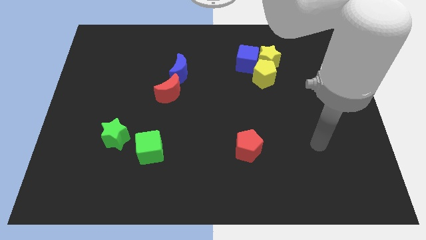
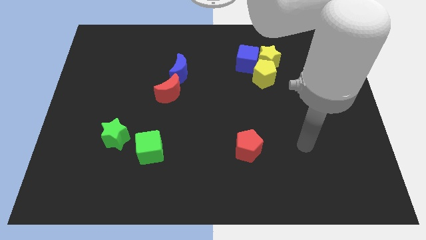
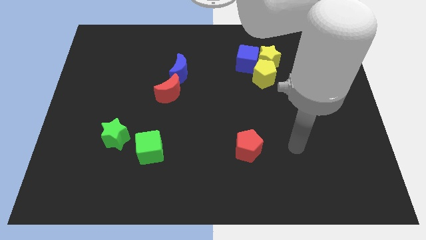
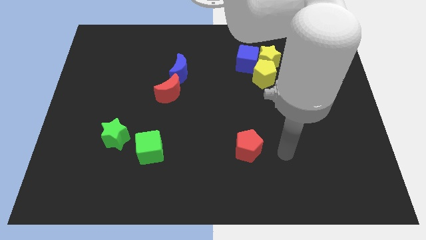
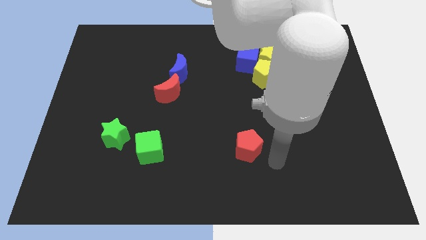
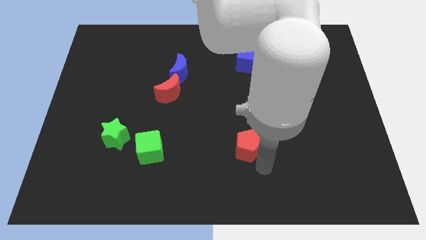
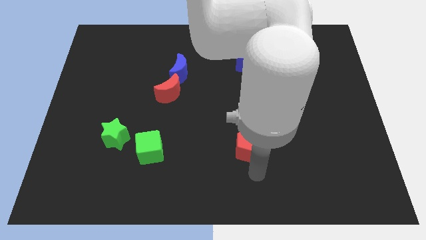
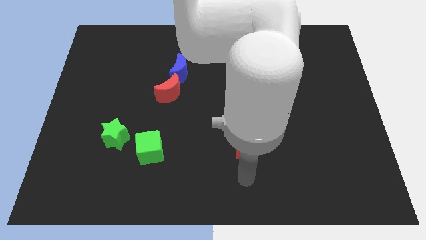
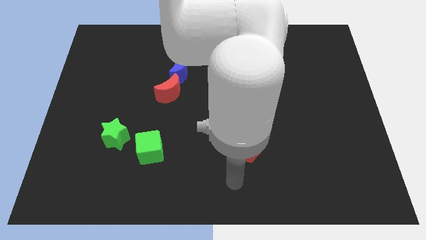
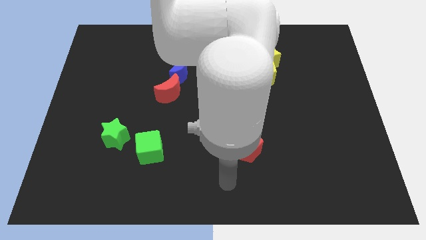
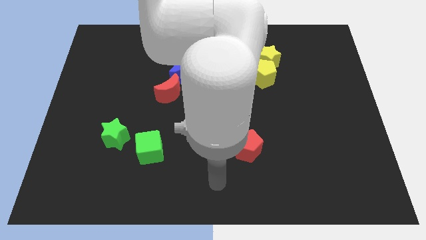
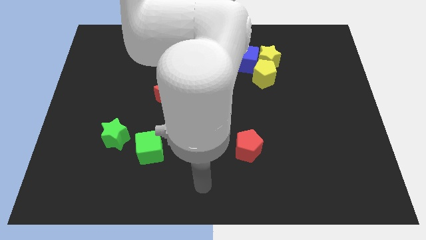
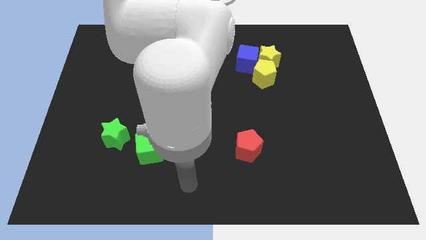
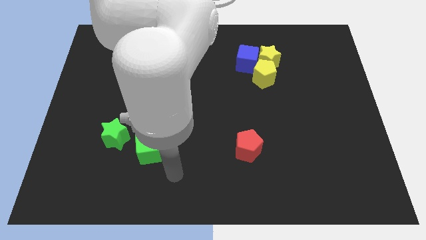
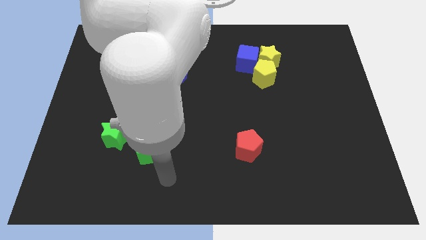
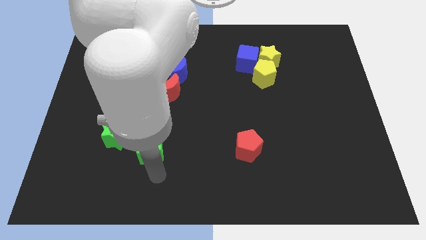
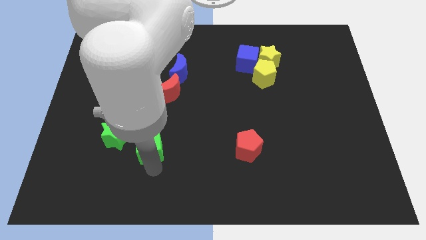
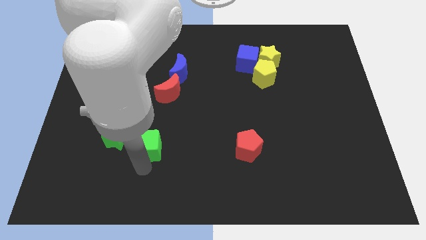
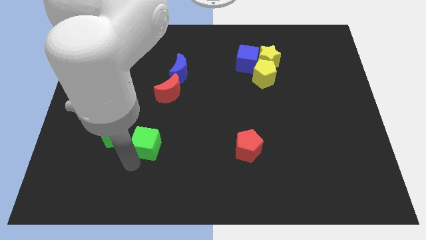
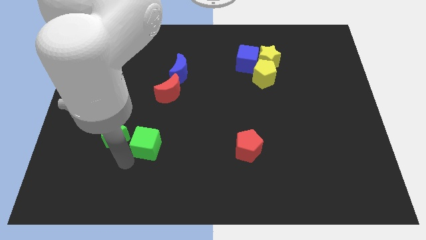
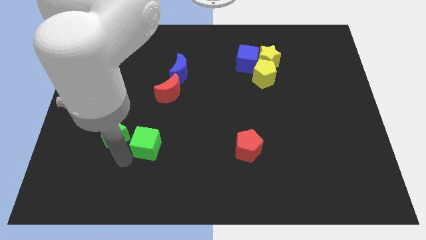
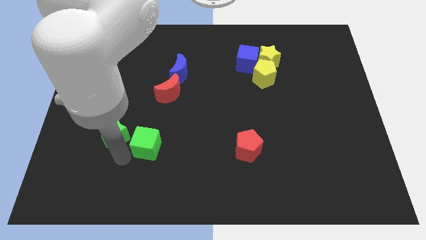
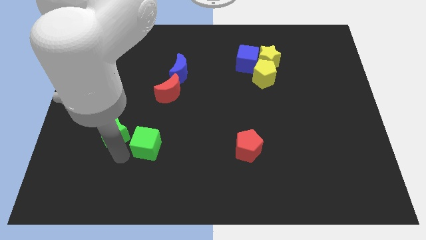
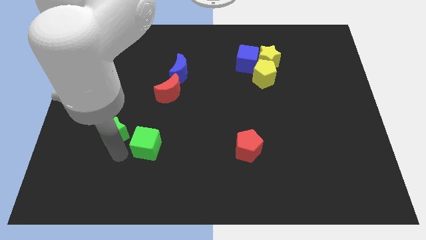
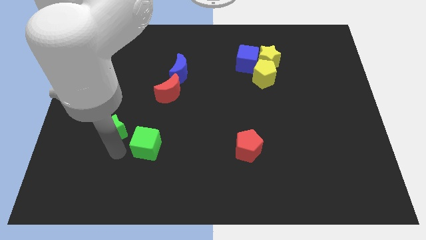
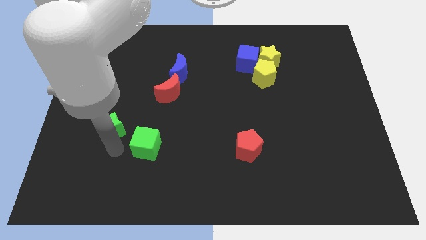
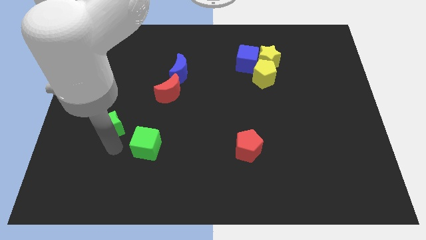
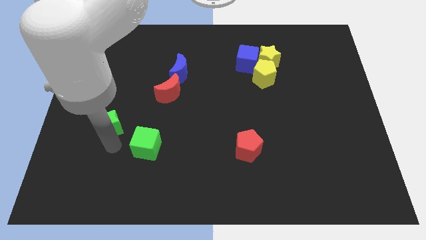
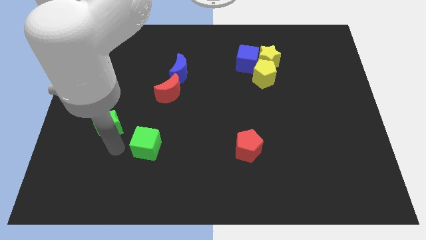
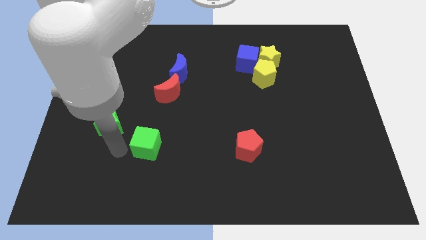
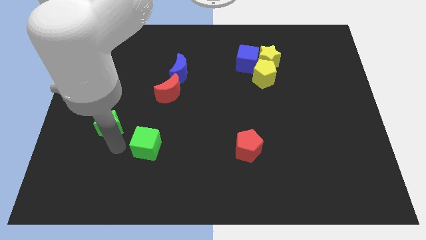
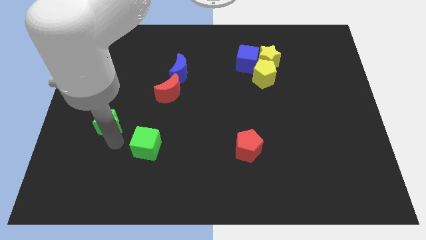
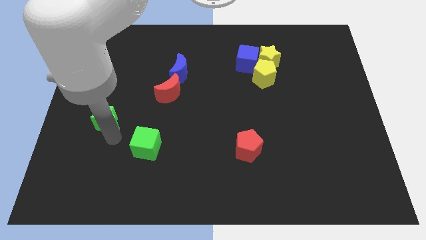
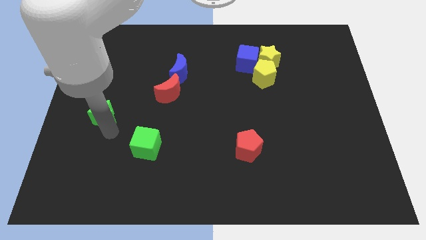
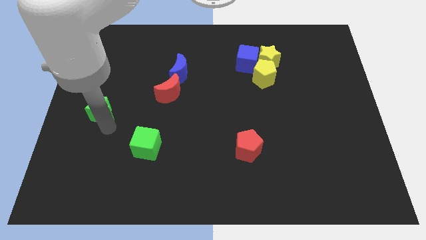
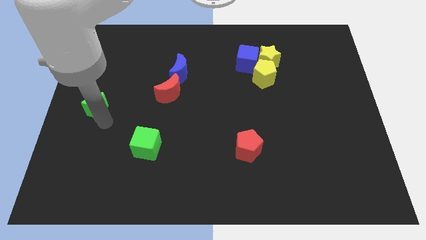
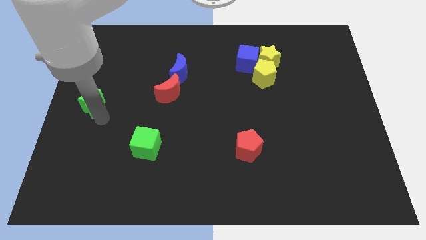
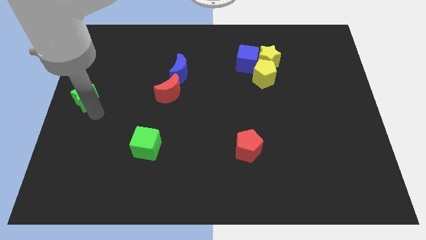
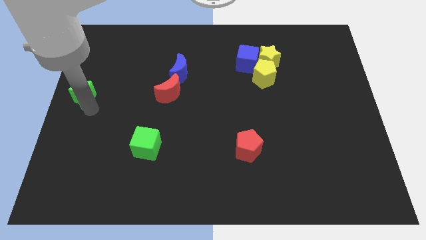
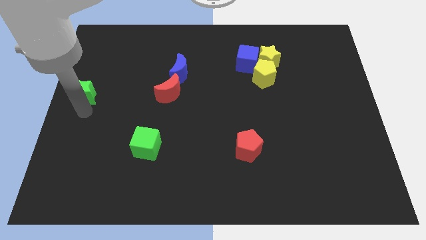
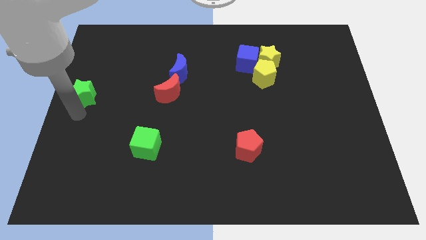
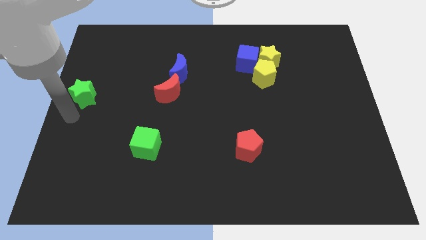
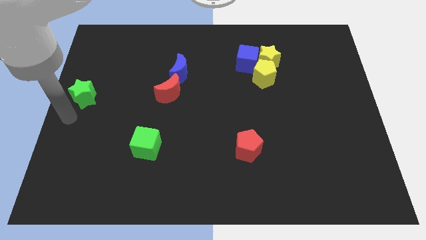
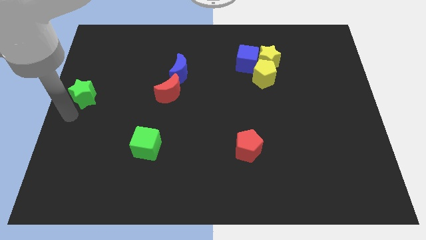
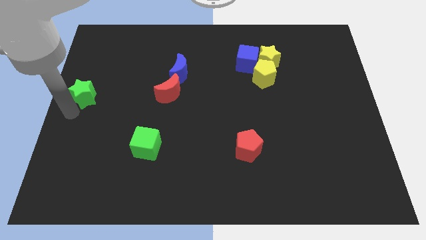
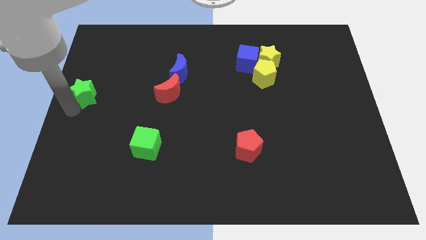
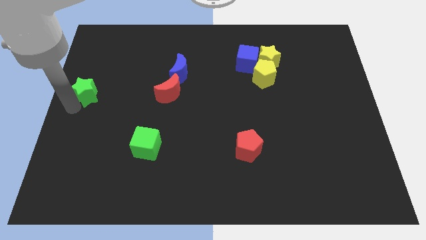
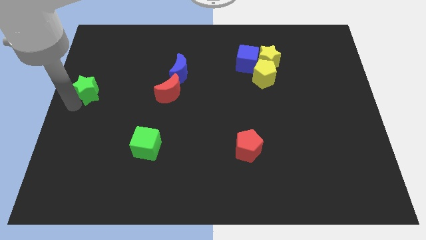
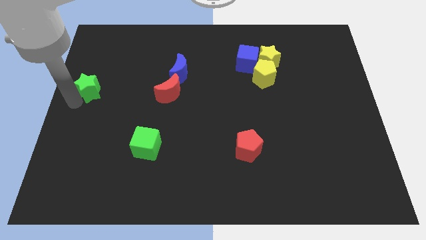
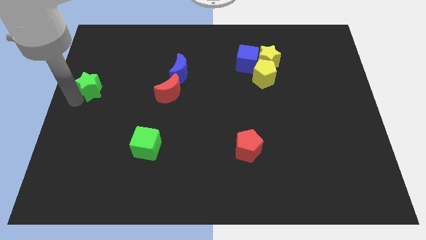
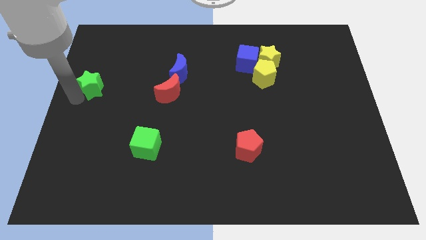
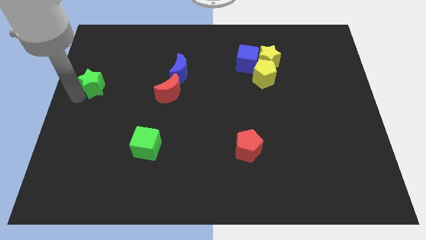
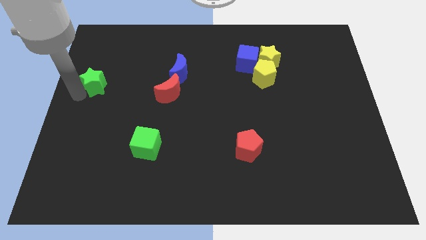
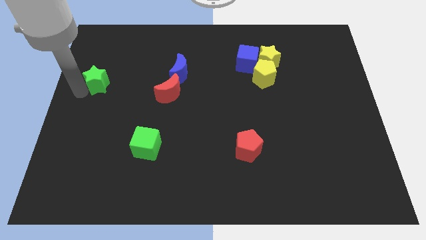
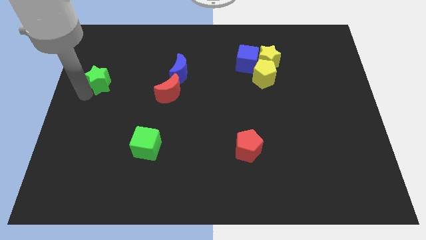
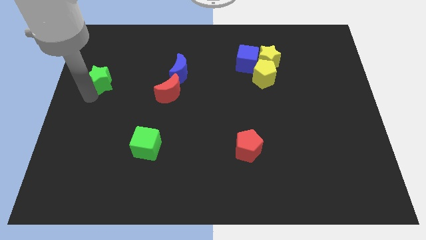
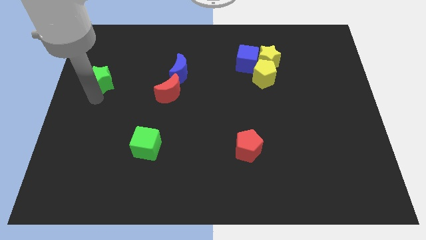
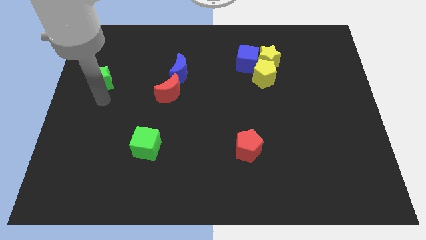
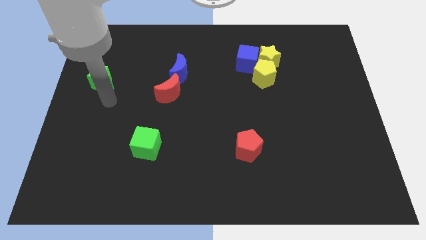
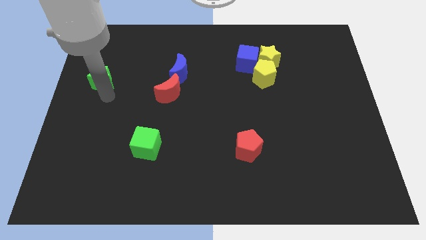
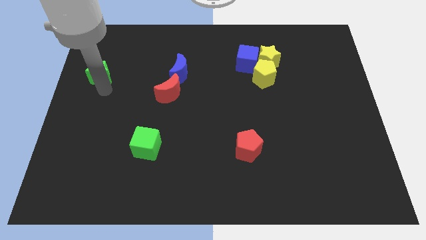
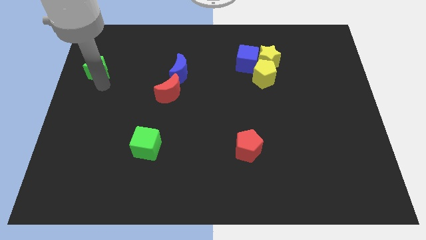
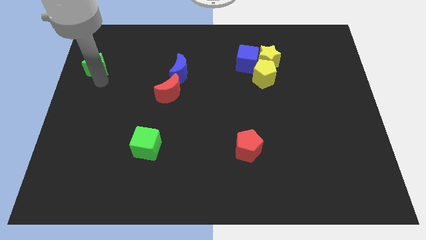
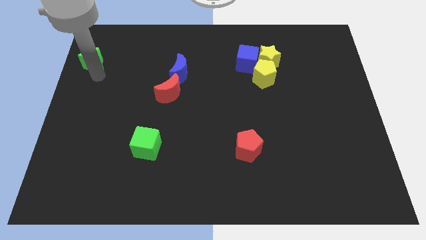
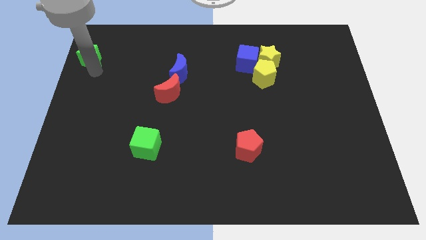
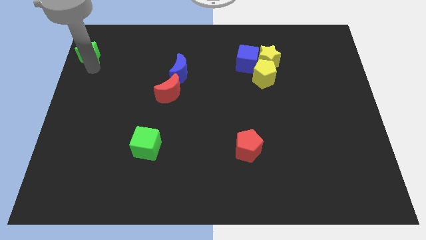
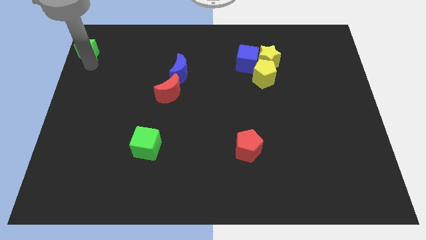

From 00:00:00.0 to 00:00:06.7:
move the green star to the top left
